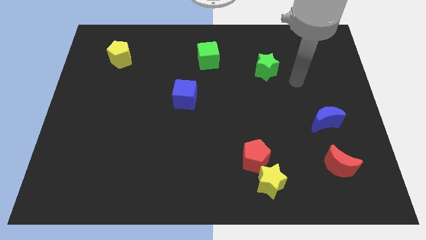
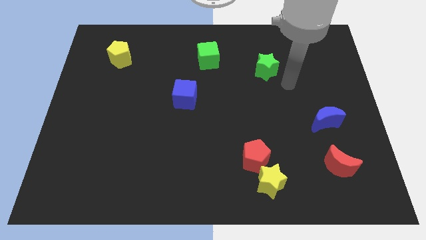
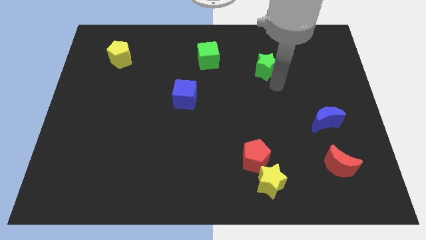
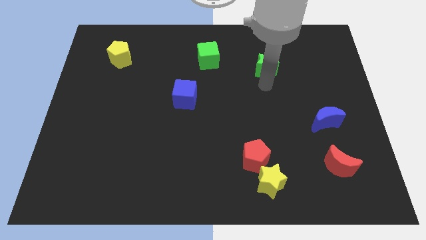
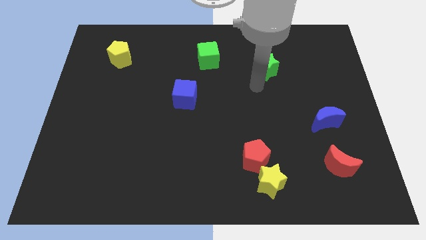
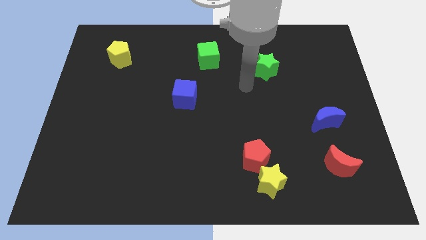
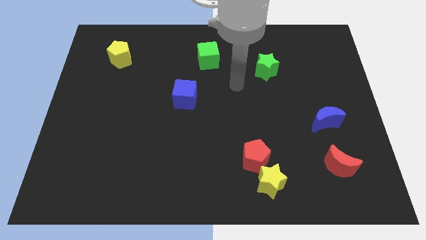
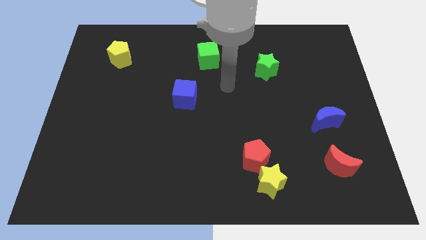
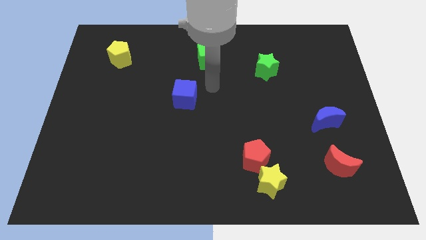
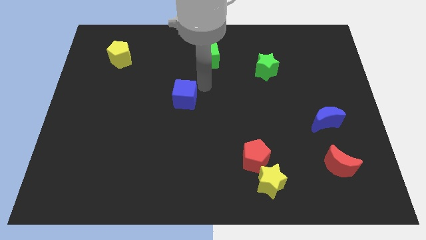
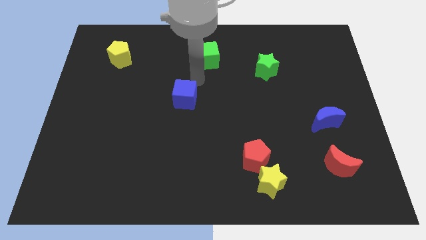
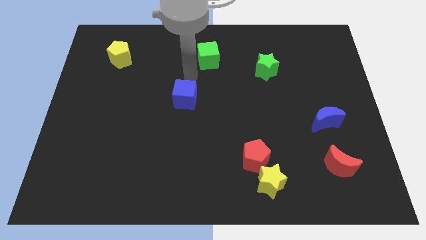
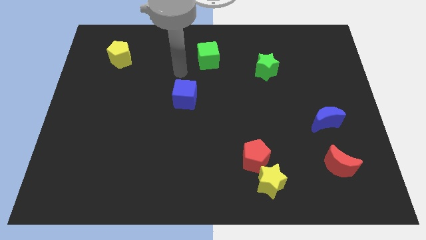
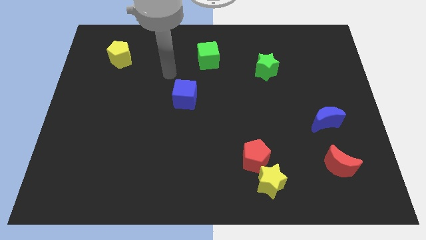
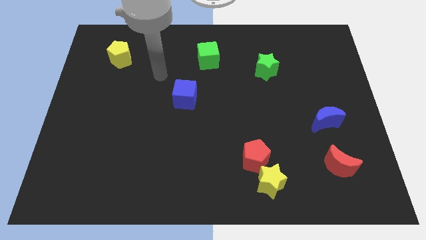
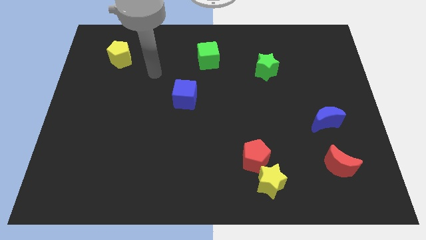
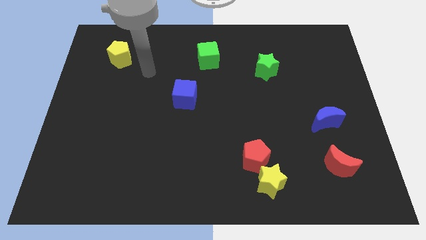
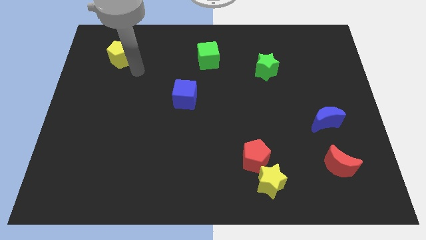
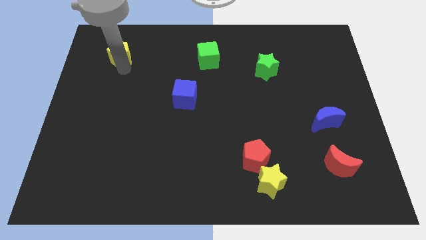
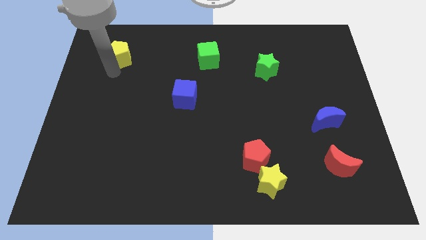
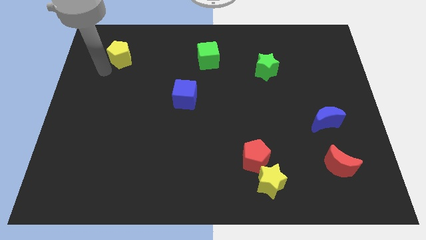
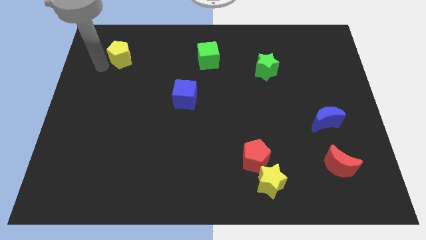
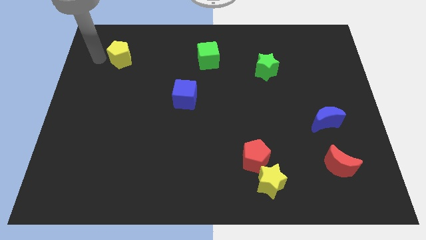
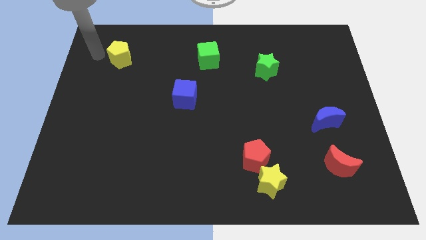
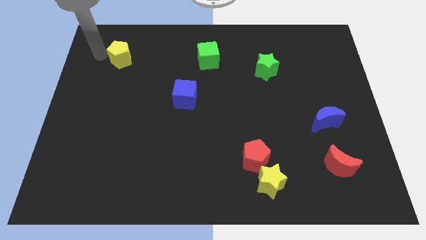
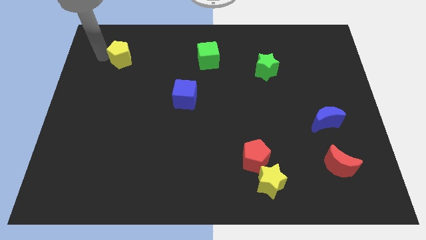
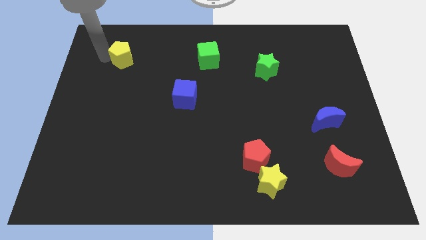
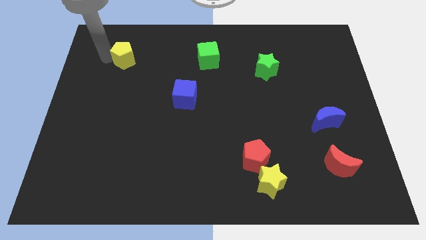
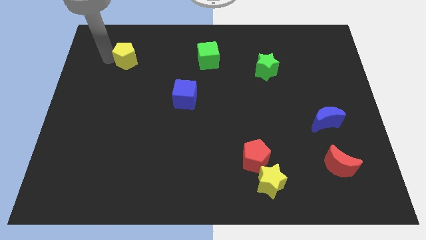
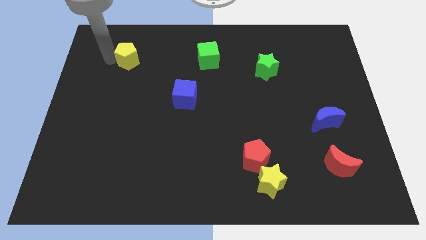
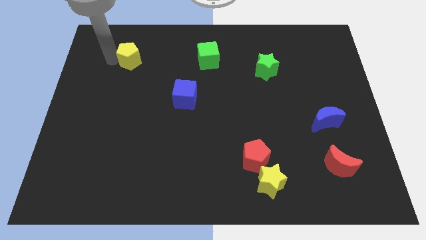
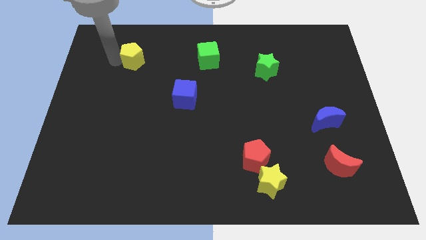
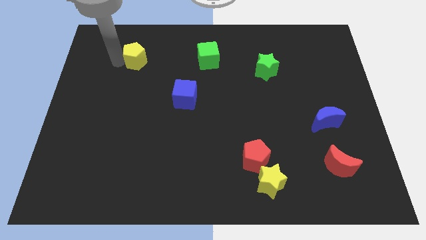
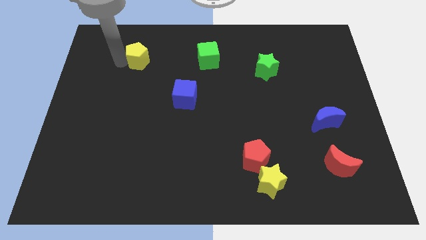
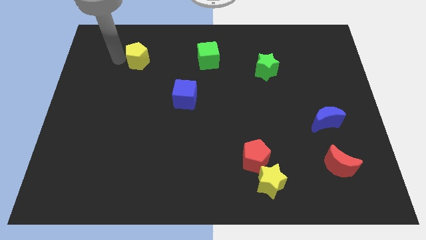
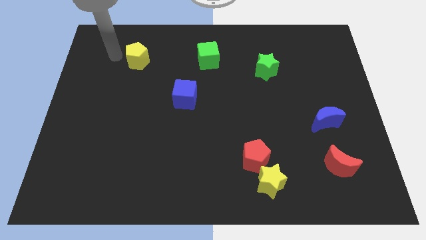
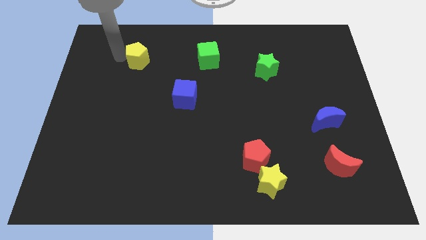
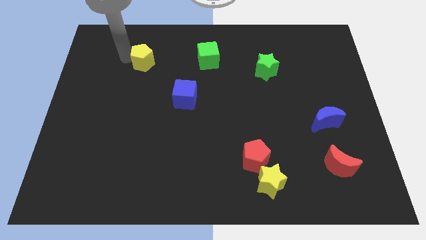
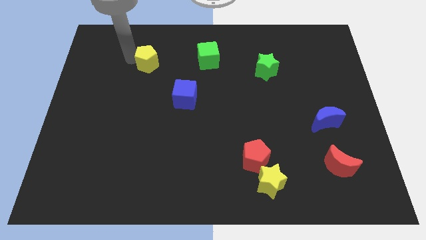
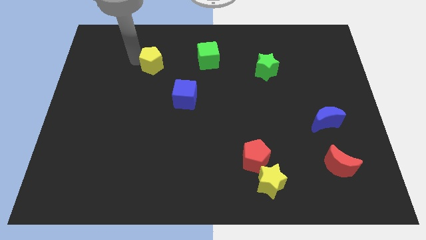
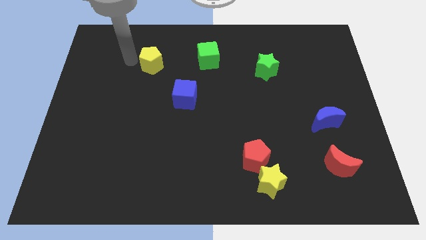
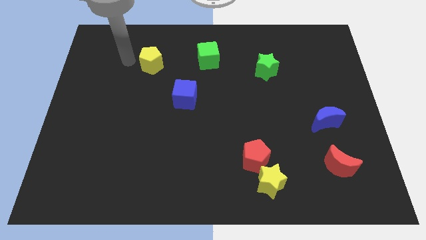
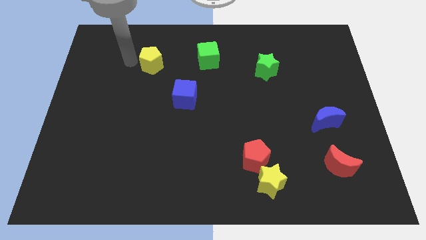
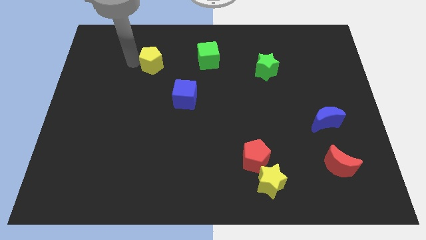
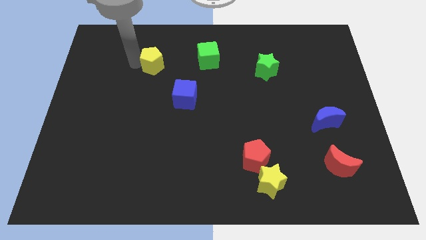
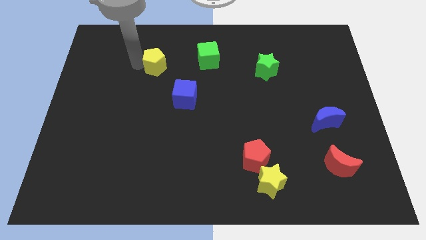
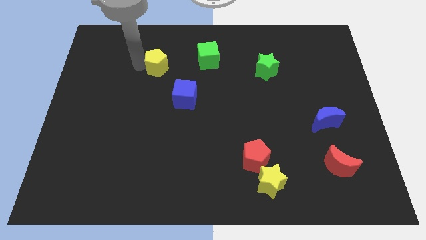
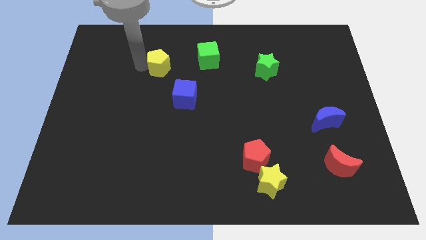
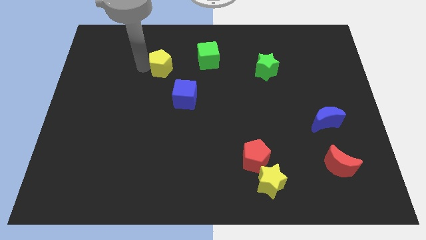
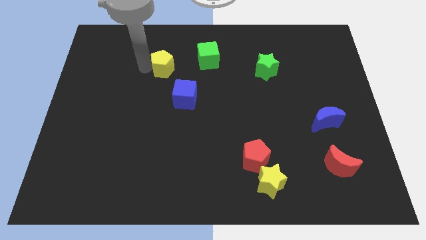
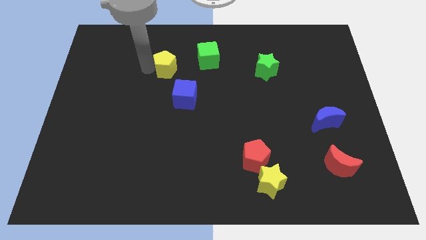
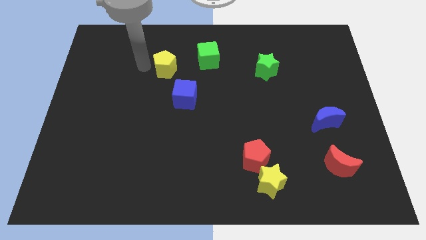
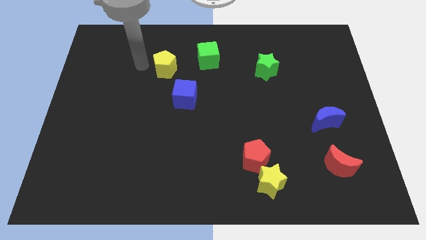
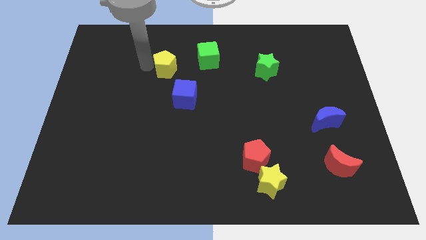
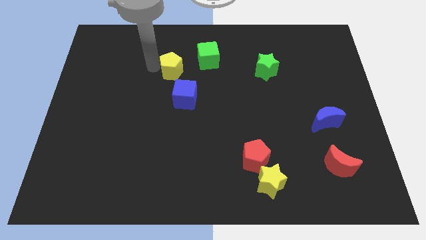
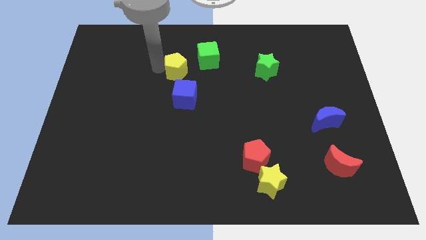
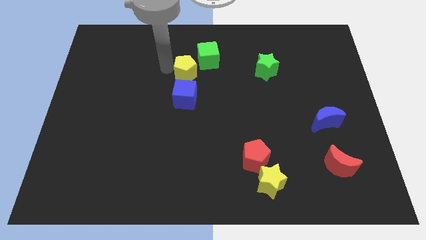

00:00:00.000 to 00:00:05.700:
push the yellow pentagon to the center
